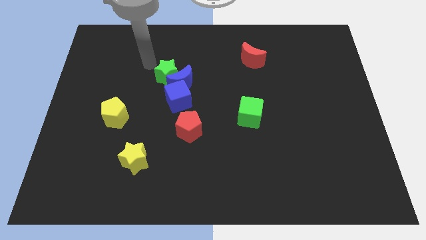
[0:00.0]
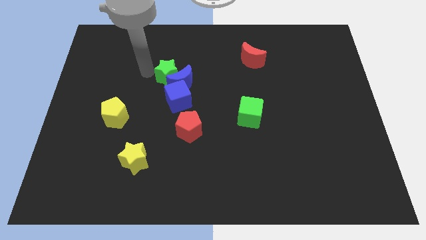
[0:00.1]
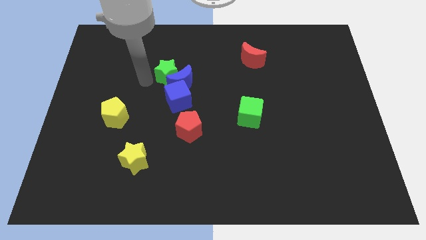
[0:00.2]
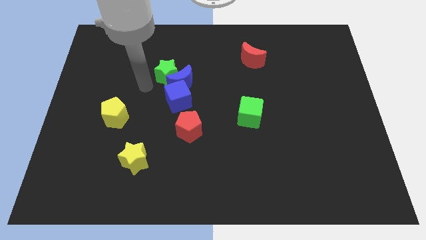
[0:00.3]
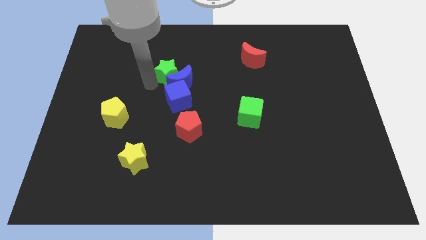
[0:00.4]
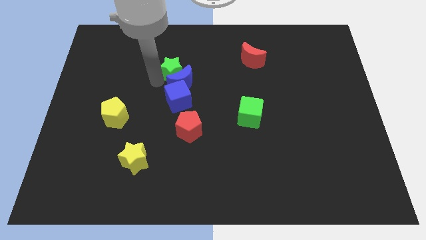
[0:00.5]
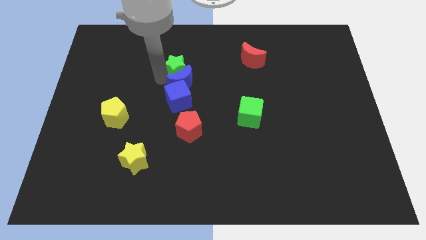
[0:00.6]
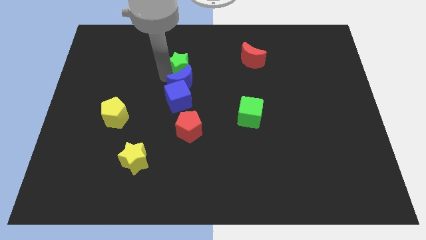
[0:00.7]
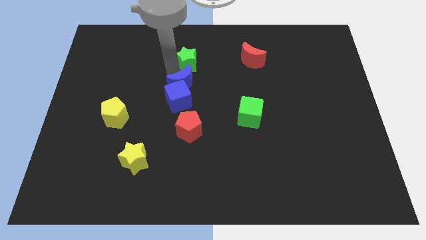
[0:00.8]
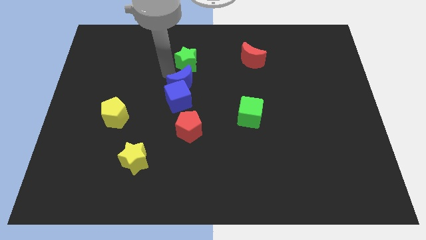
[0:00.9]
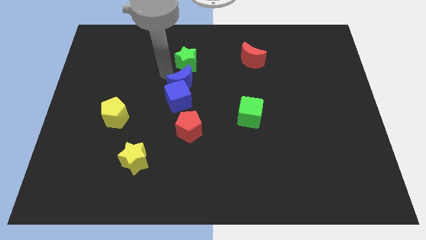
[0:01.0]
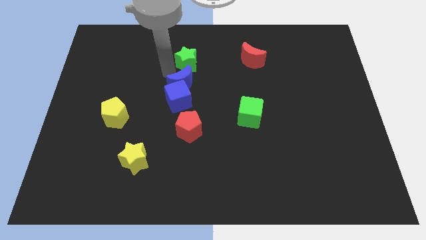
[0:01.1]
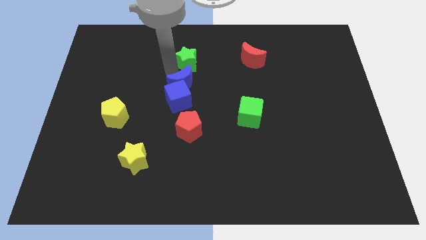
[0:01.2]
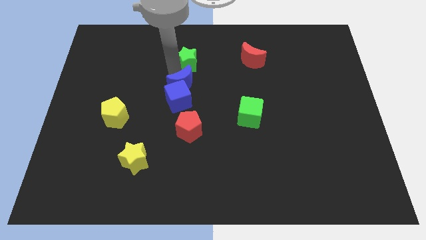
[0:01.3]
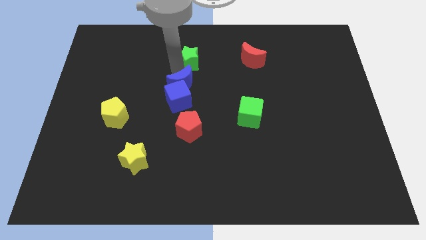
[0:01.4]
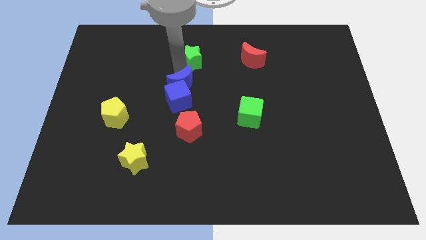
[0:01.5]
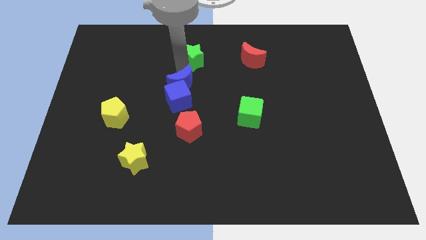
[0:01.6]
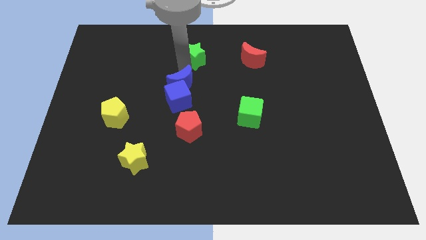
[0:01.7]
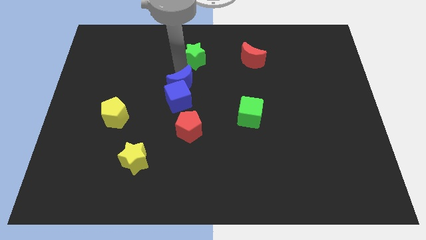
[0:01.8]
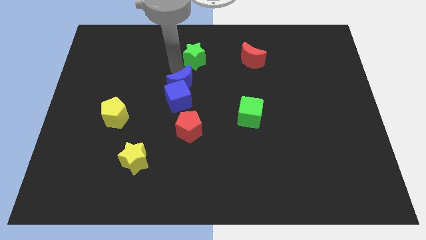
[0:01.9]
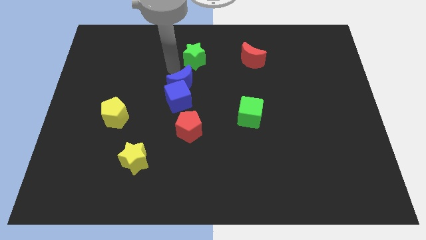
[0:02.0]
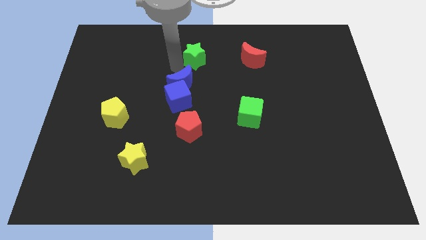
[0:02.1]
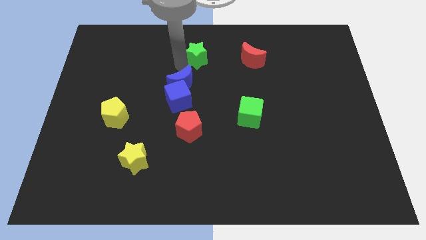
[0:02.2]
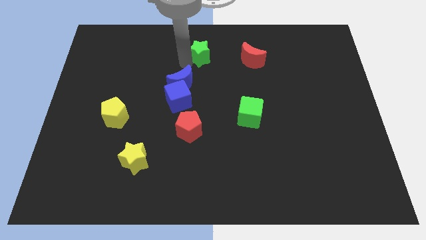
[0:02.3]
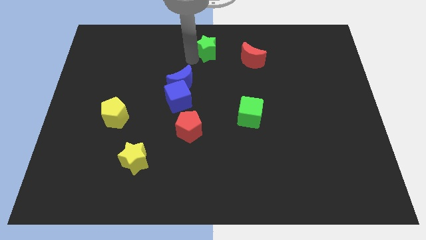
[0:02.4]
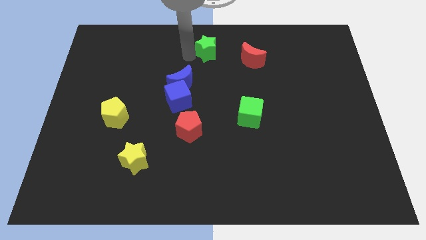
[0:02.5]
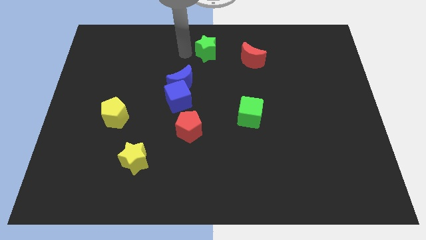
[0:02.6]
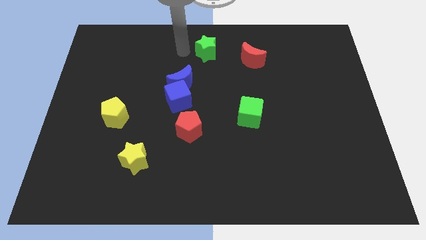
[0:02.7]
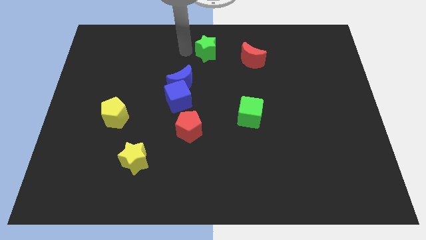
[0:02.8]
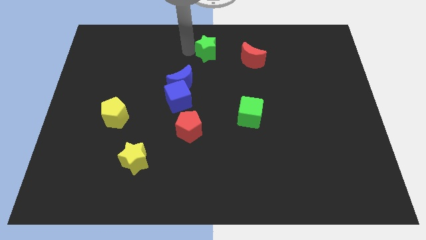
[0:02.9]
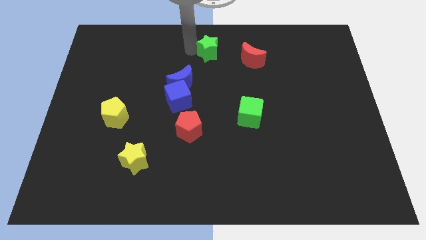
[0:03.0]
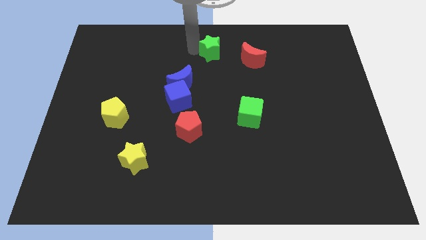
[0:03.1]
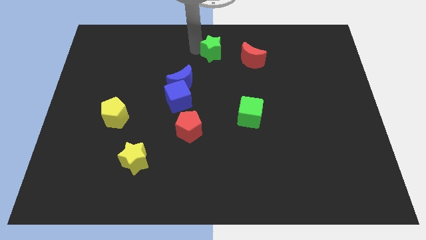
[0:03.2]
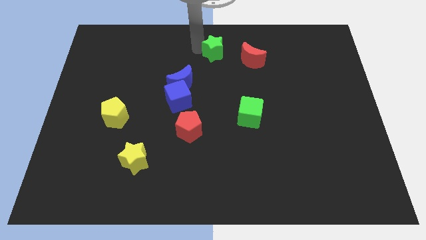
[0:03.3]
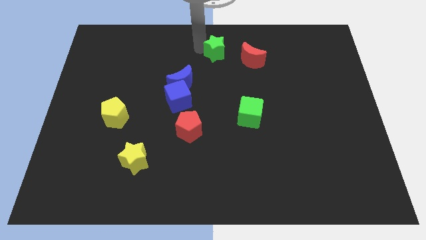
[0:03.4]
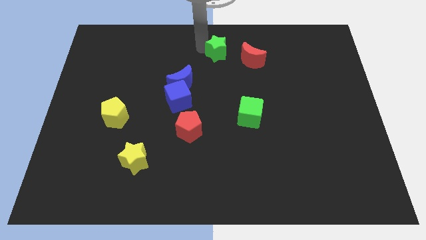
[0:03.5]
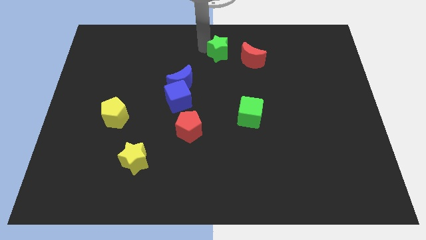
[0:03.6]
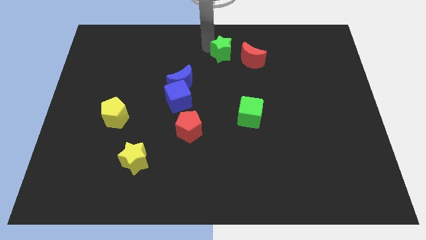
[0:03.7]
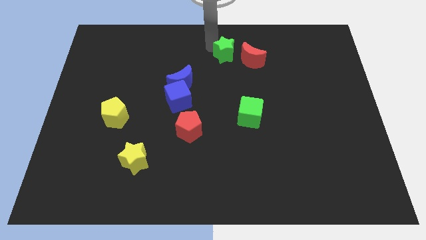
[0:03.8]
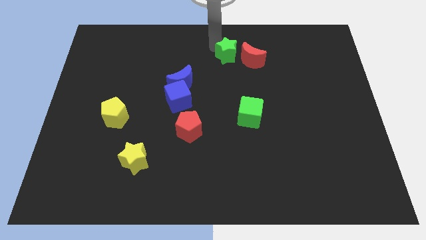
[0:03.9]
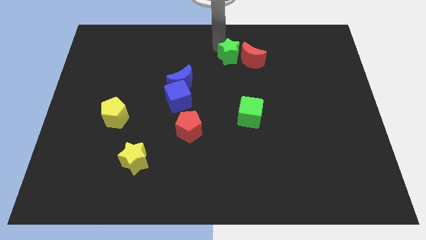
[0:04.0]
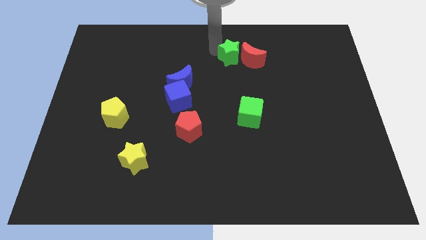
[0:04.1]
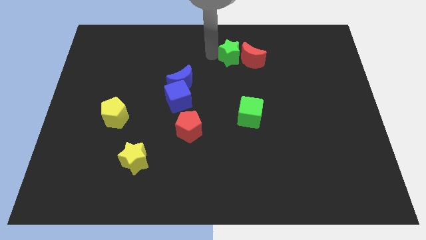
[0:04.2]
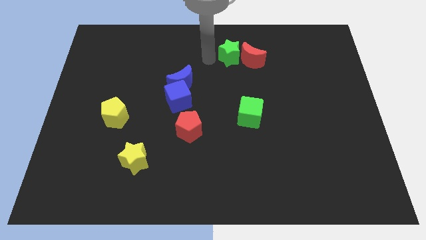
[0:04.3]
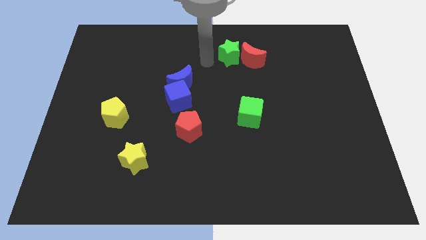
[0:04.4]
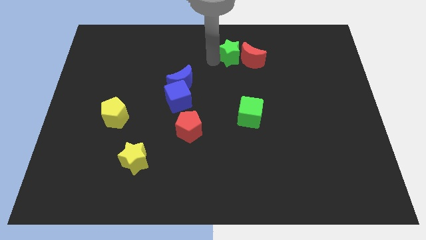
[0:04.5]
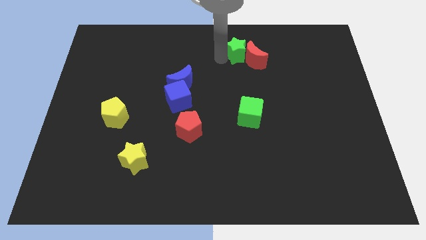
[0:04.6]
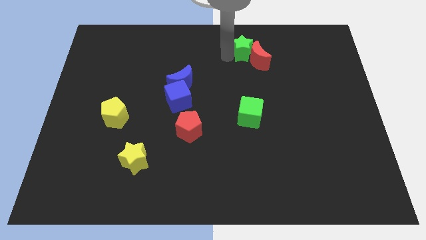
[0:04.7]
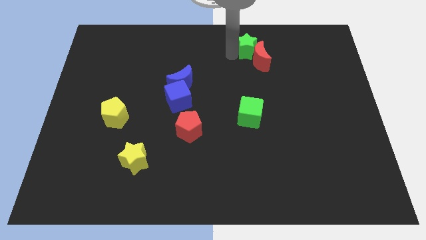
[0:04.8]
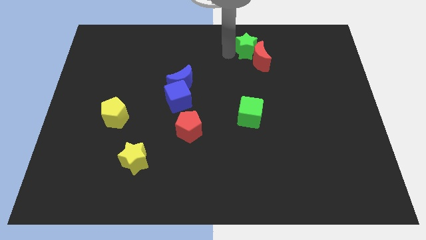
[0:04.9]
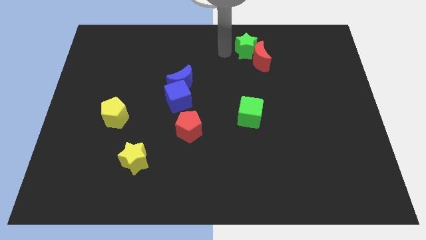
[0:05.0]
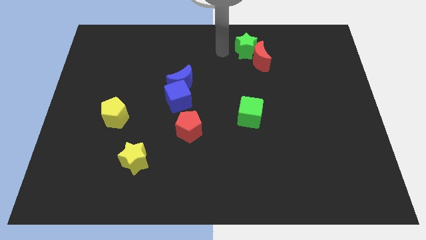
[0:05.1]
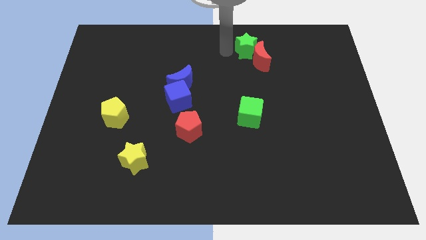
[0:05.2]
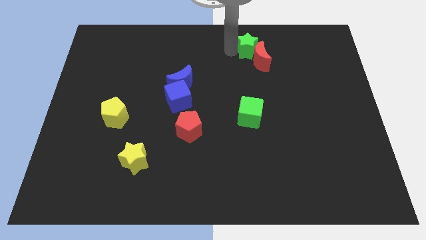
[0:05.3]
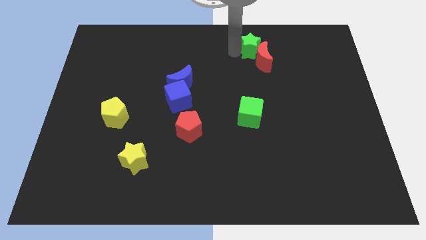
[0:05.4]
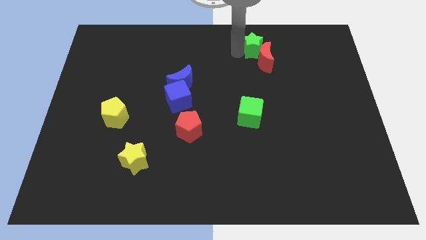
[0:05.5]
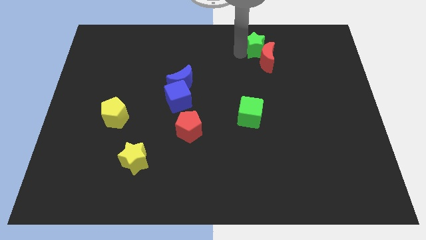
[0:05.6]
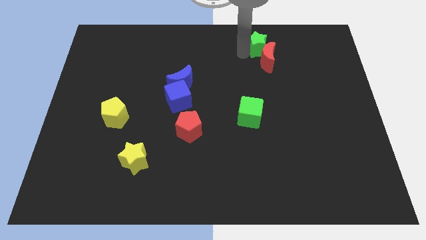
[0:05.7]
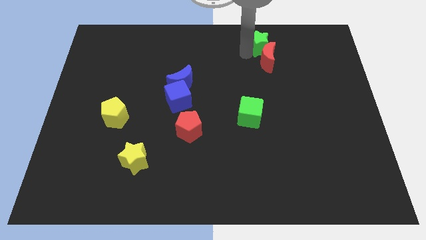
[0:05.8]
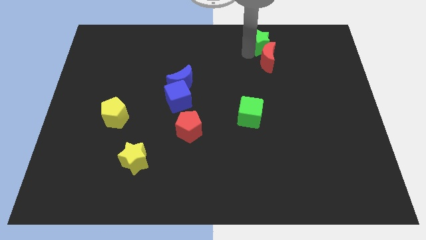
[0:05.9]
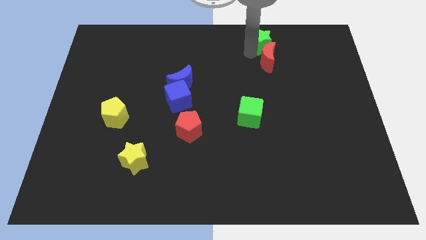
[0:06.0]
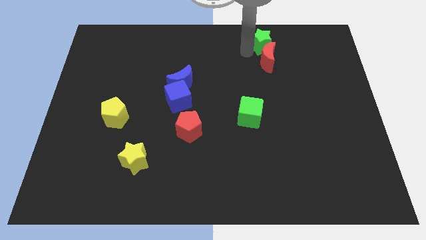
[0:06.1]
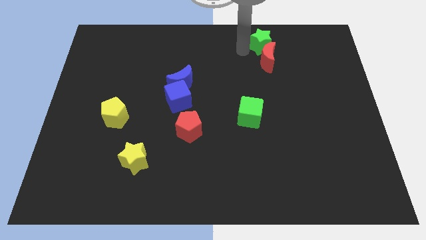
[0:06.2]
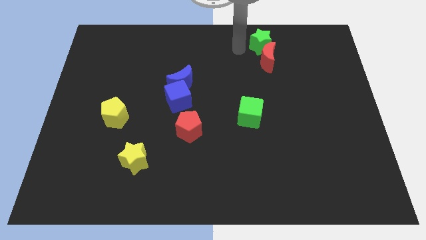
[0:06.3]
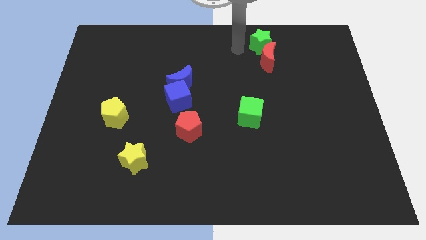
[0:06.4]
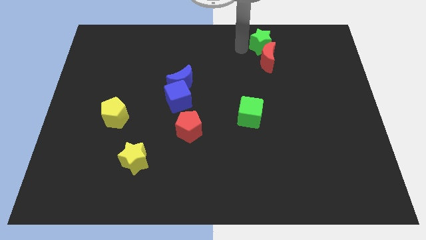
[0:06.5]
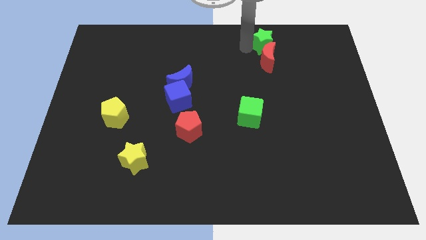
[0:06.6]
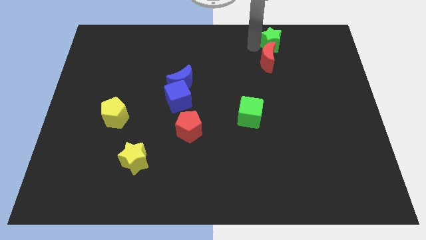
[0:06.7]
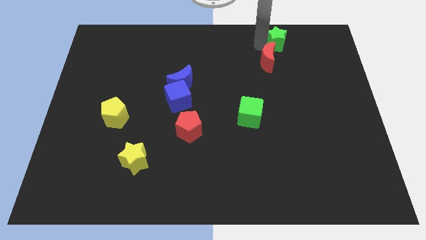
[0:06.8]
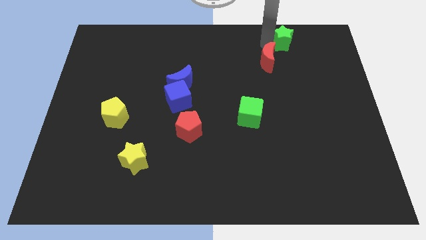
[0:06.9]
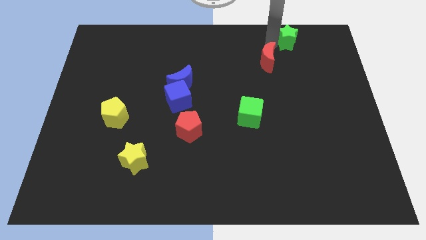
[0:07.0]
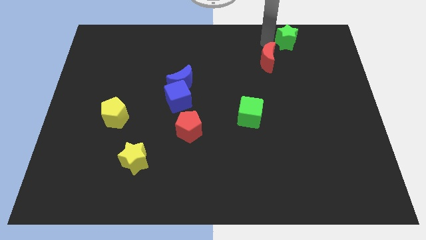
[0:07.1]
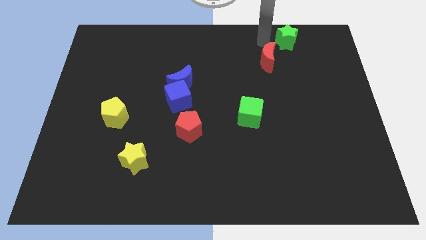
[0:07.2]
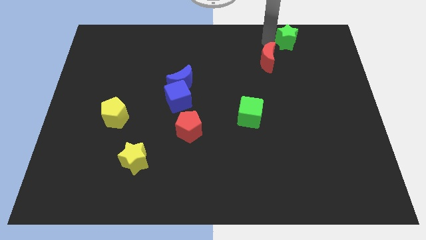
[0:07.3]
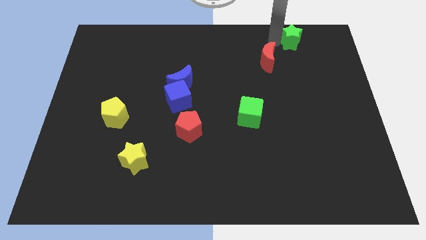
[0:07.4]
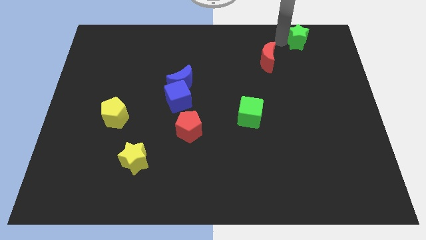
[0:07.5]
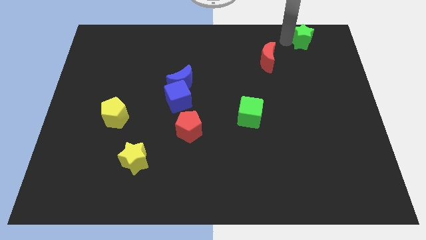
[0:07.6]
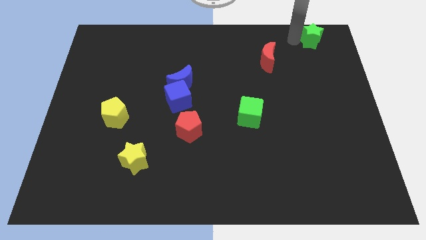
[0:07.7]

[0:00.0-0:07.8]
push the green star to the top right
